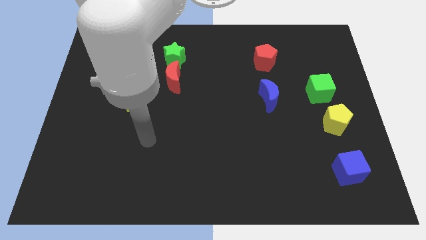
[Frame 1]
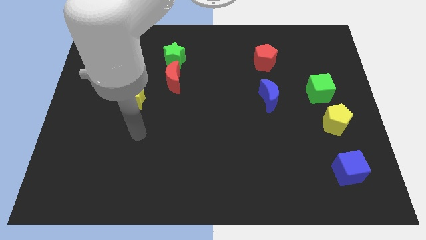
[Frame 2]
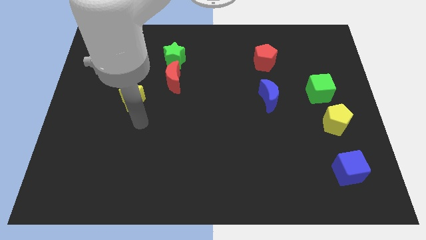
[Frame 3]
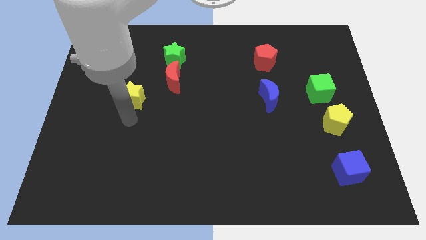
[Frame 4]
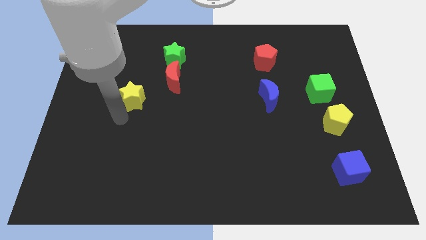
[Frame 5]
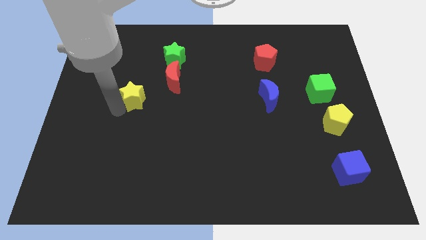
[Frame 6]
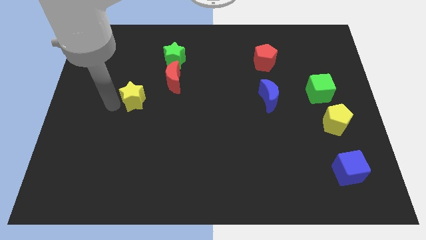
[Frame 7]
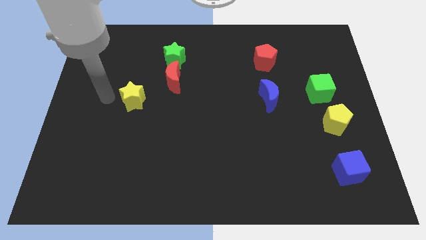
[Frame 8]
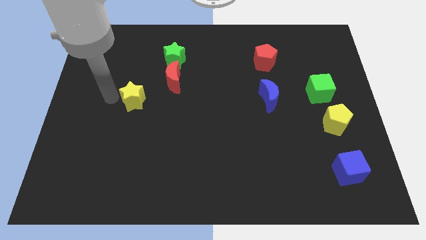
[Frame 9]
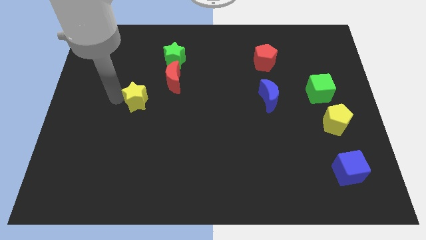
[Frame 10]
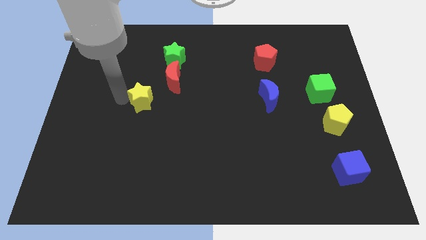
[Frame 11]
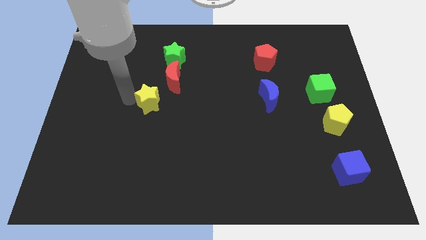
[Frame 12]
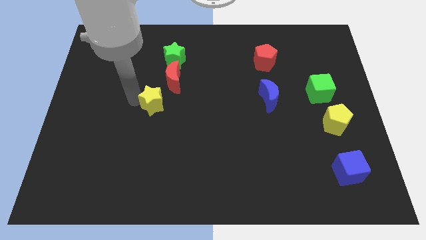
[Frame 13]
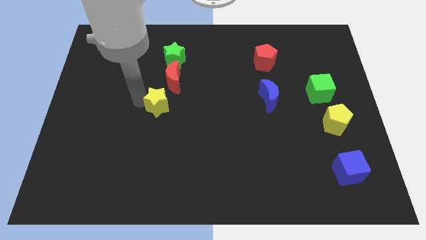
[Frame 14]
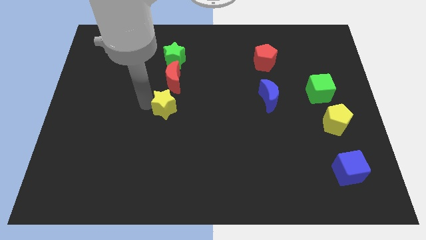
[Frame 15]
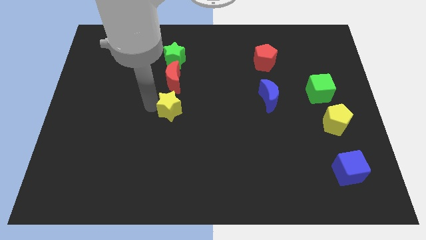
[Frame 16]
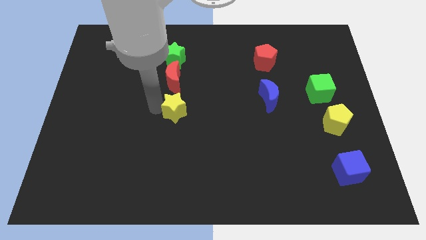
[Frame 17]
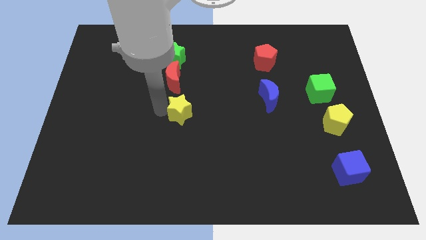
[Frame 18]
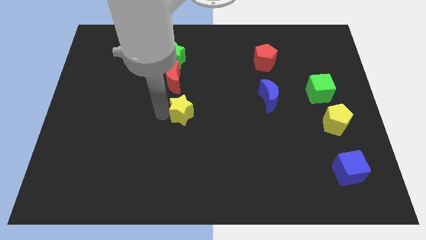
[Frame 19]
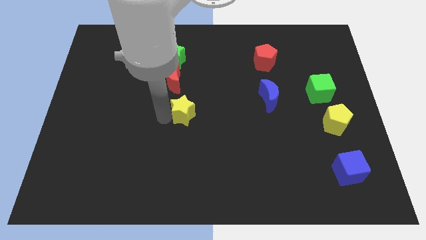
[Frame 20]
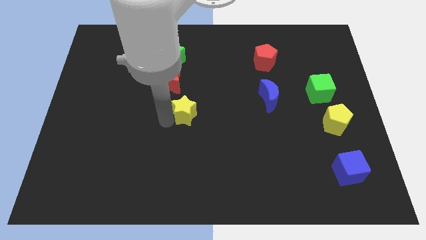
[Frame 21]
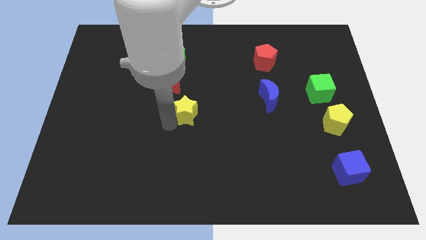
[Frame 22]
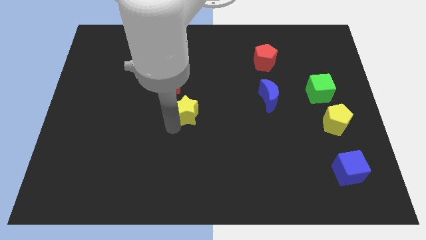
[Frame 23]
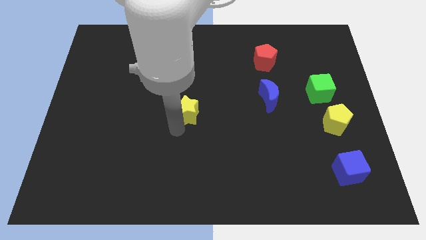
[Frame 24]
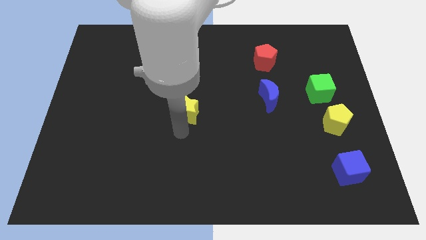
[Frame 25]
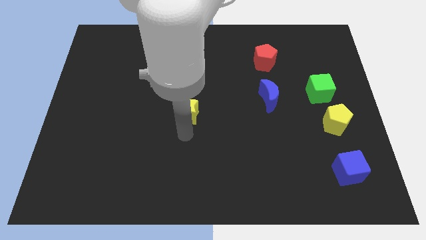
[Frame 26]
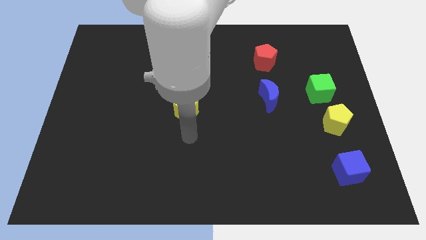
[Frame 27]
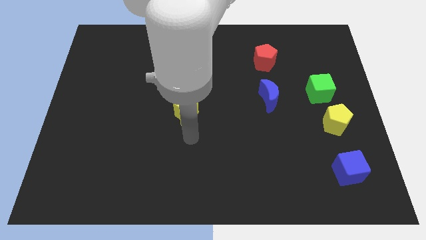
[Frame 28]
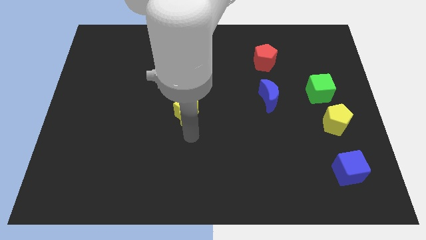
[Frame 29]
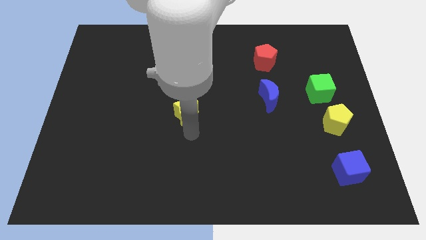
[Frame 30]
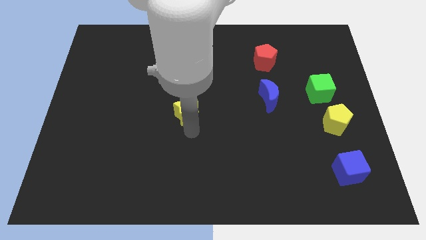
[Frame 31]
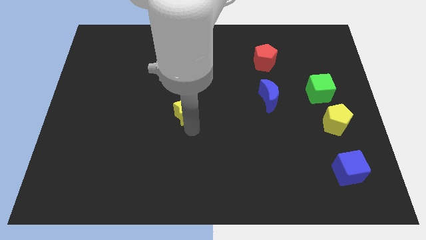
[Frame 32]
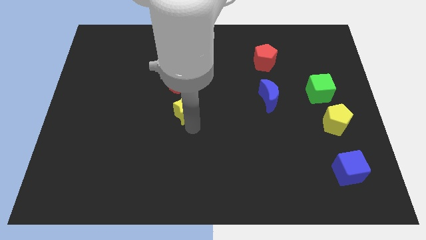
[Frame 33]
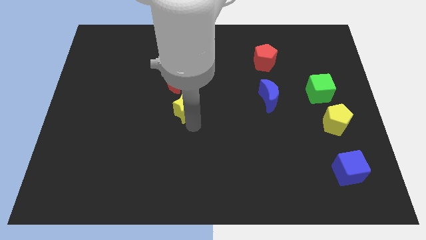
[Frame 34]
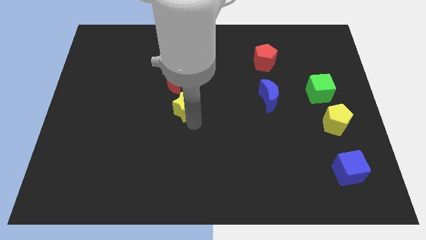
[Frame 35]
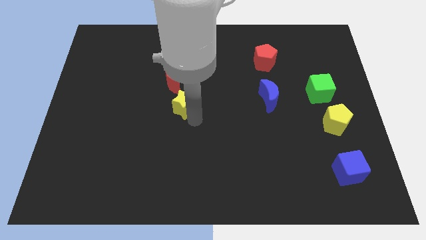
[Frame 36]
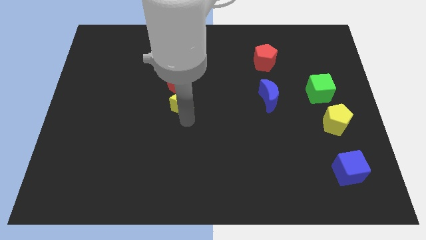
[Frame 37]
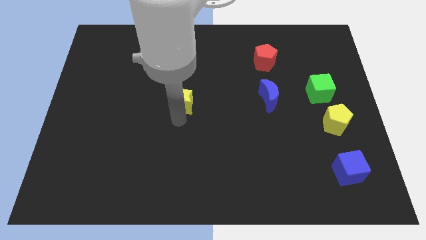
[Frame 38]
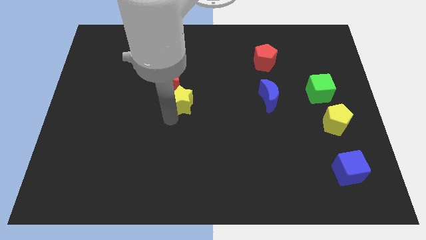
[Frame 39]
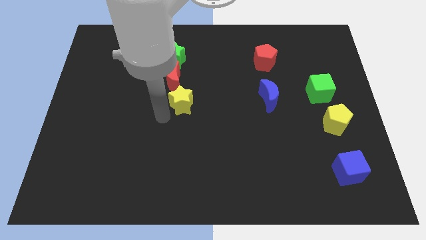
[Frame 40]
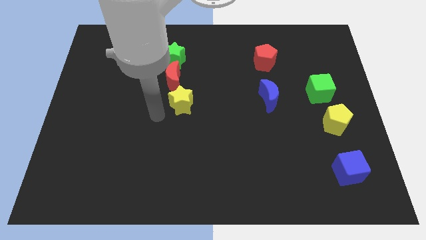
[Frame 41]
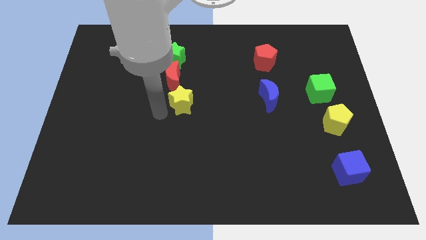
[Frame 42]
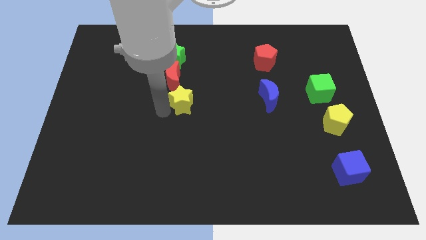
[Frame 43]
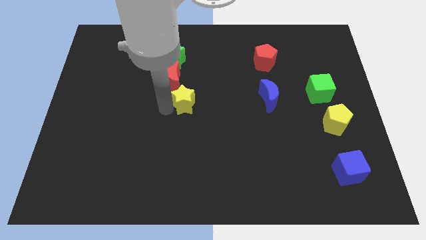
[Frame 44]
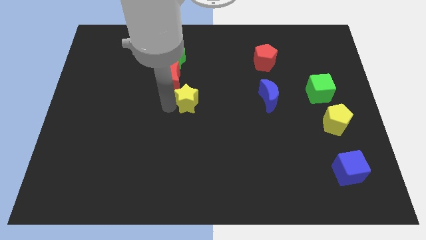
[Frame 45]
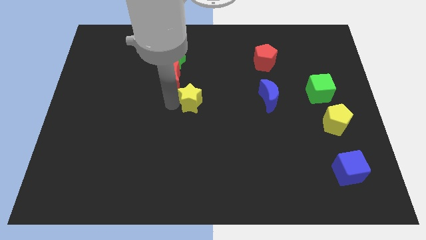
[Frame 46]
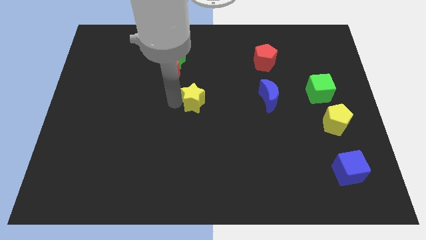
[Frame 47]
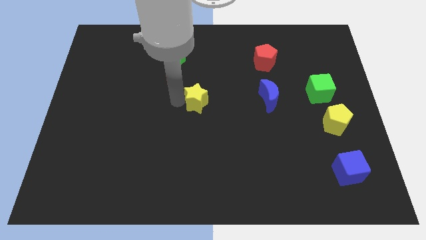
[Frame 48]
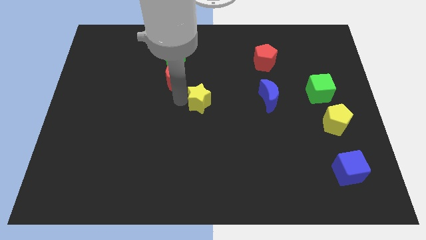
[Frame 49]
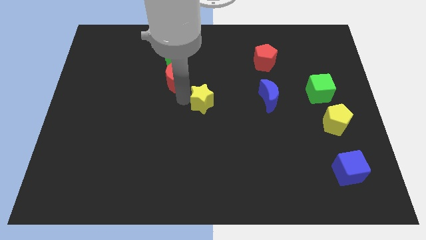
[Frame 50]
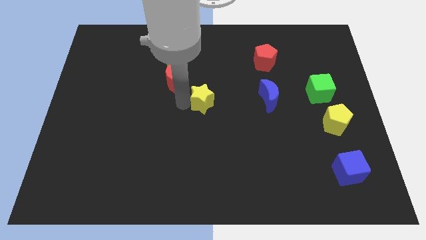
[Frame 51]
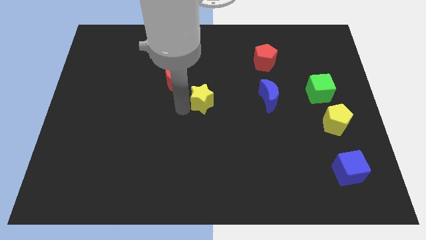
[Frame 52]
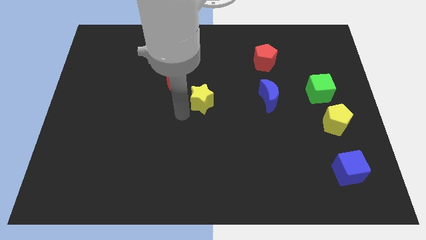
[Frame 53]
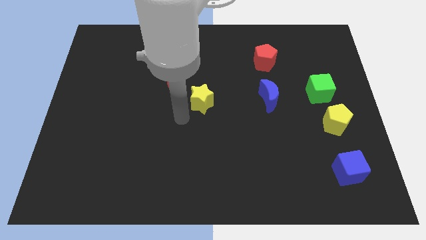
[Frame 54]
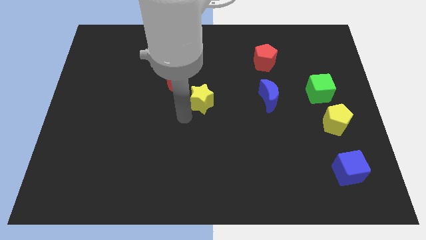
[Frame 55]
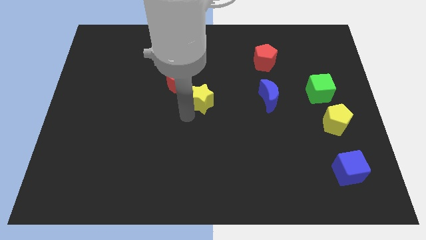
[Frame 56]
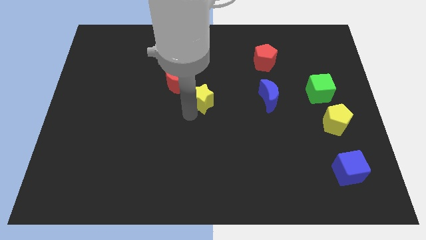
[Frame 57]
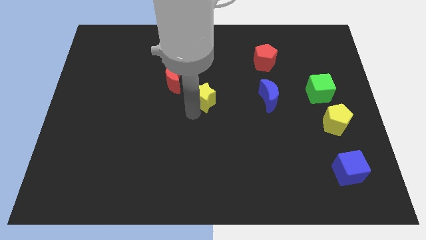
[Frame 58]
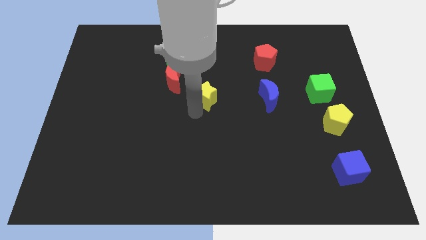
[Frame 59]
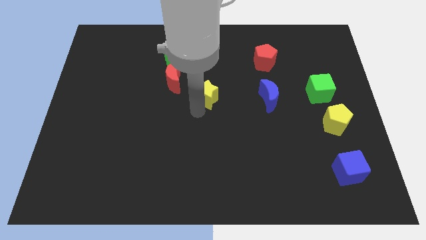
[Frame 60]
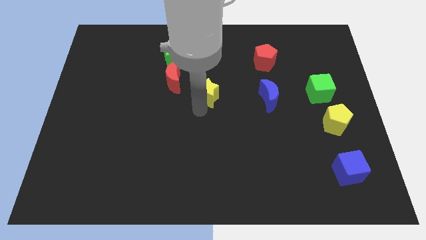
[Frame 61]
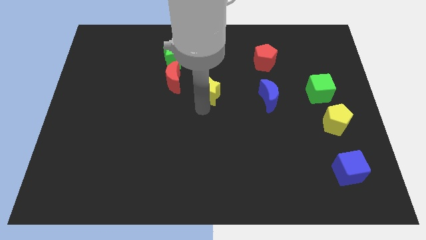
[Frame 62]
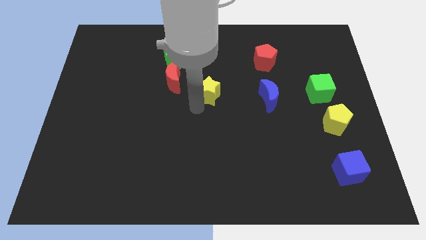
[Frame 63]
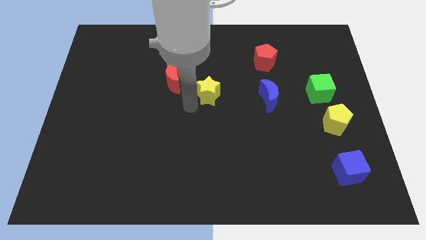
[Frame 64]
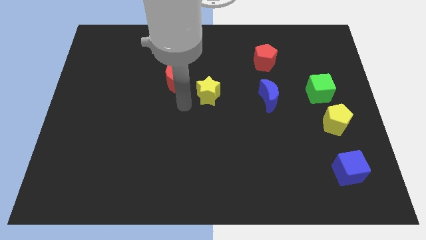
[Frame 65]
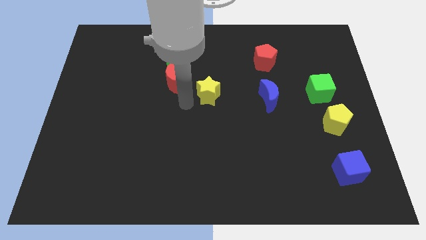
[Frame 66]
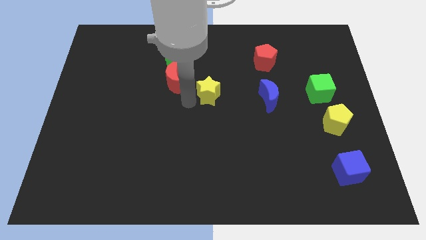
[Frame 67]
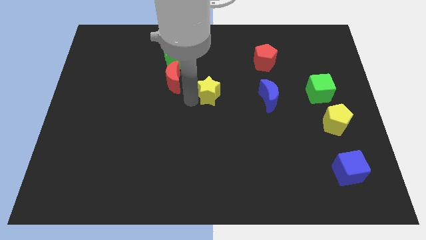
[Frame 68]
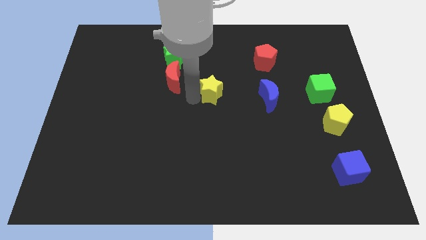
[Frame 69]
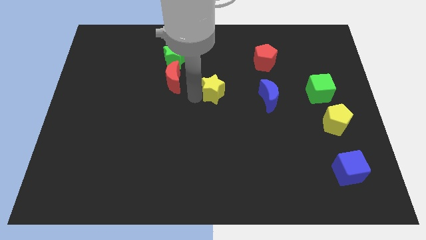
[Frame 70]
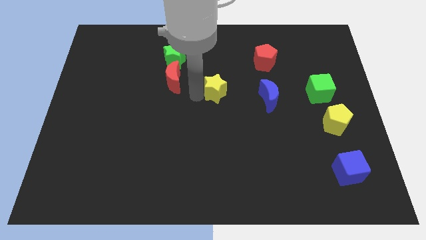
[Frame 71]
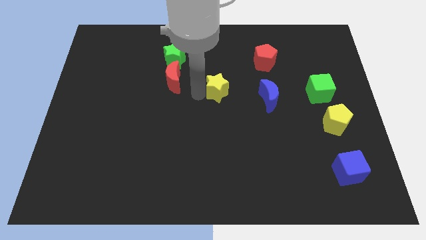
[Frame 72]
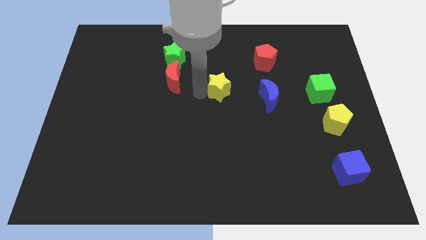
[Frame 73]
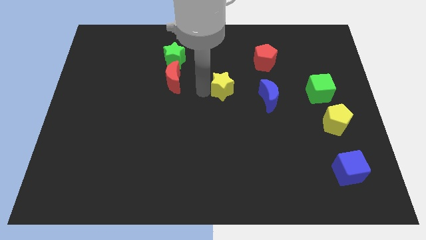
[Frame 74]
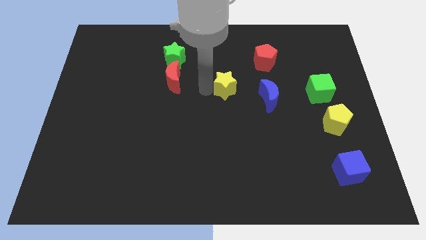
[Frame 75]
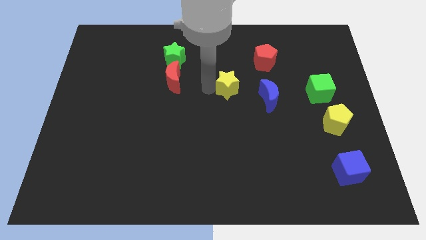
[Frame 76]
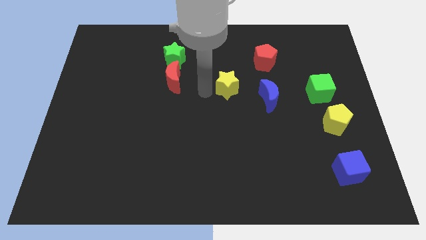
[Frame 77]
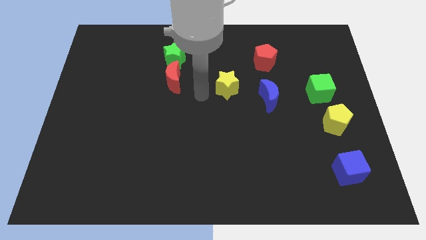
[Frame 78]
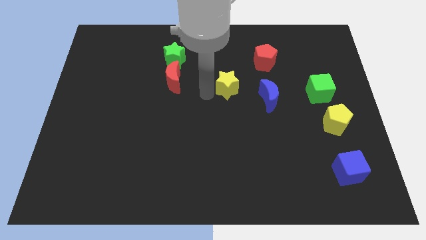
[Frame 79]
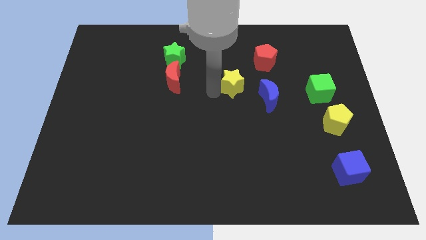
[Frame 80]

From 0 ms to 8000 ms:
move the yellow star to the top left side of the blue moon

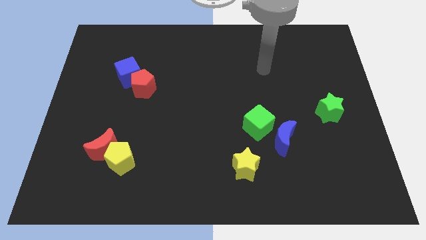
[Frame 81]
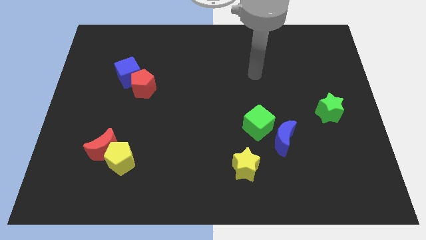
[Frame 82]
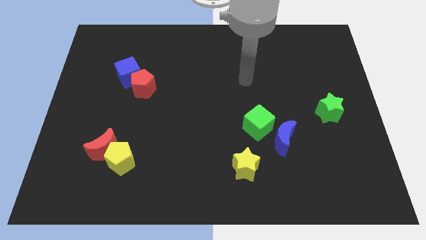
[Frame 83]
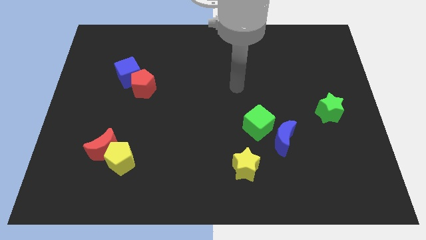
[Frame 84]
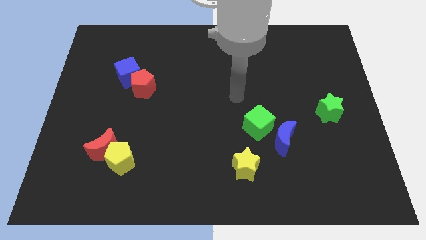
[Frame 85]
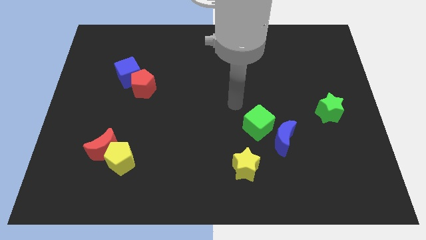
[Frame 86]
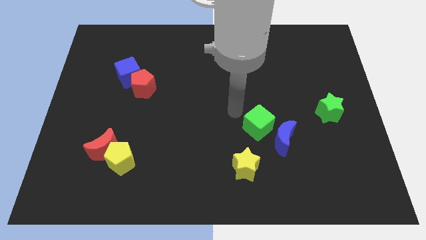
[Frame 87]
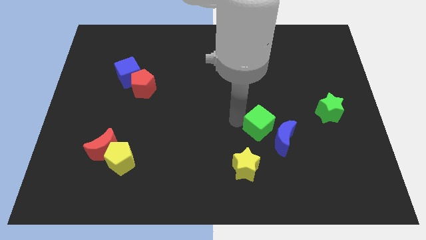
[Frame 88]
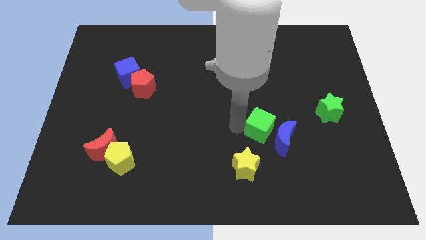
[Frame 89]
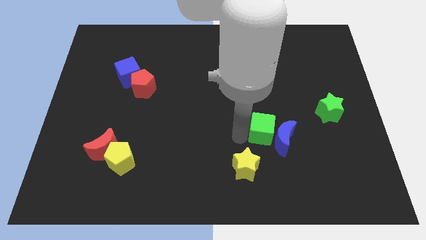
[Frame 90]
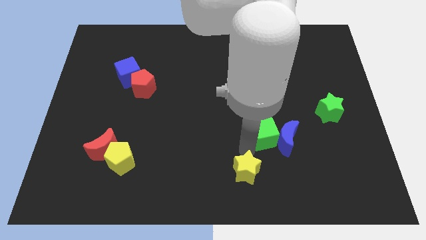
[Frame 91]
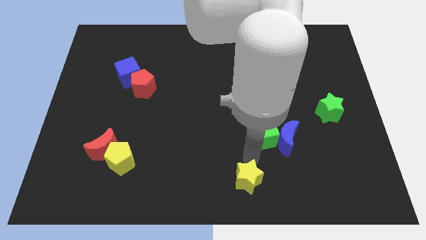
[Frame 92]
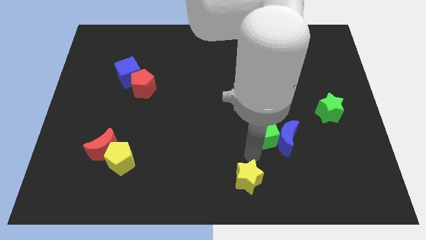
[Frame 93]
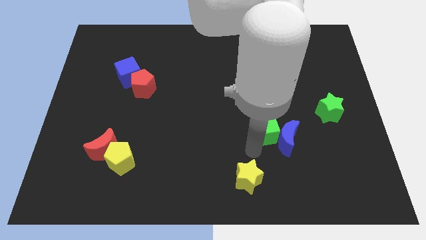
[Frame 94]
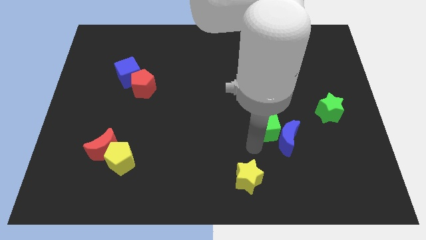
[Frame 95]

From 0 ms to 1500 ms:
move the green cube to the top side of the blue moon
